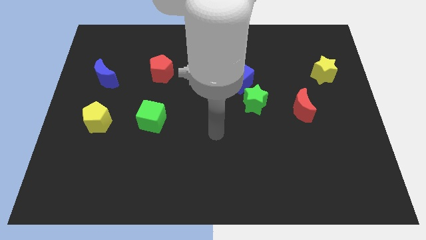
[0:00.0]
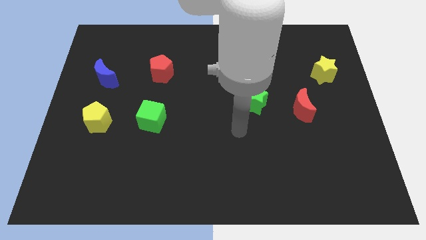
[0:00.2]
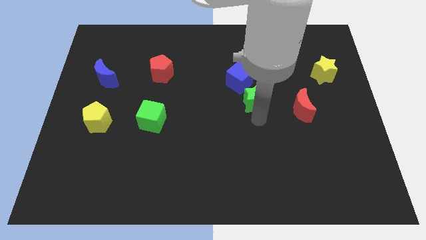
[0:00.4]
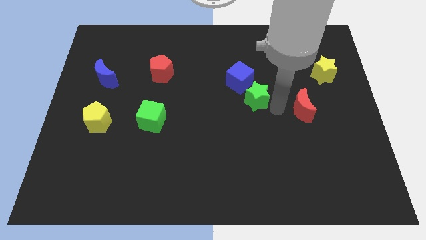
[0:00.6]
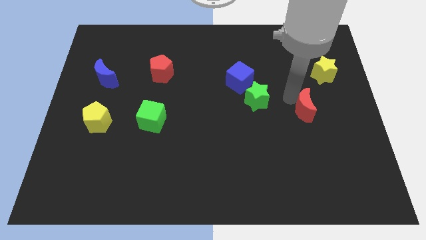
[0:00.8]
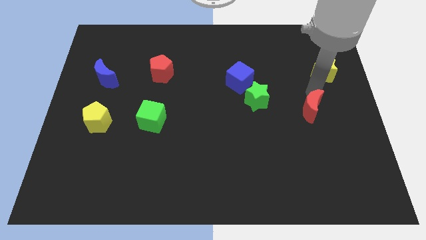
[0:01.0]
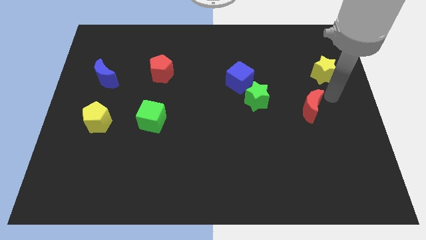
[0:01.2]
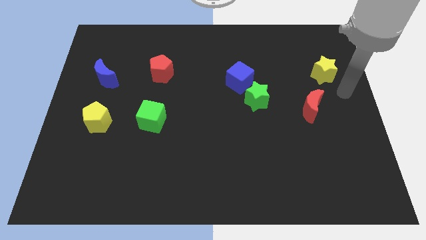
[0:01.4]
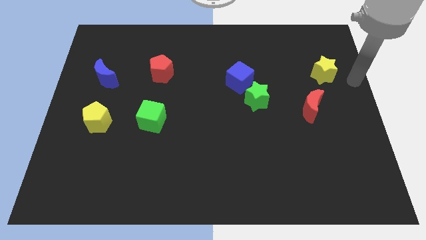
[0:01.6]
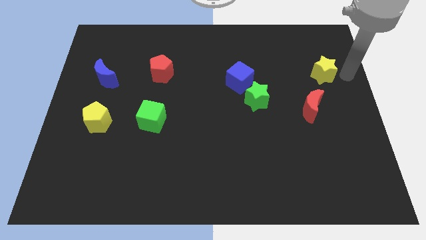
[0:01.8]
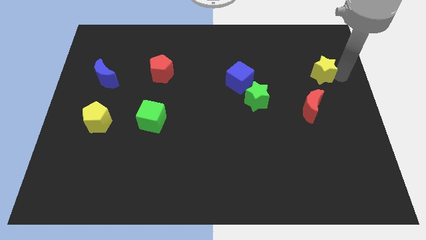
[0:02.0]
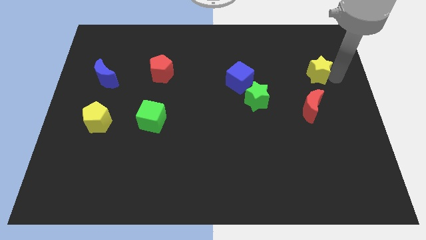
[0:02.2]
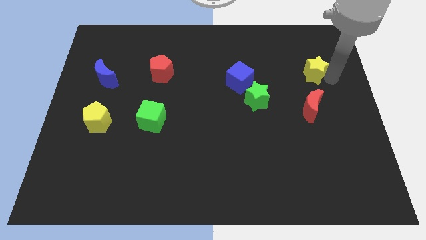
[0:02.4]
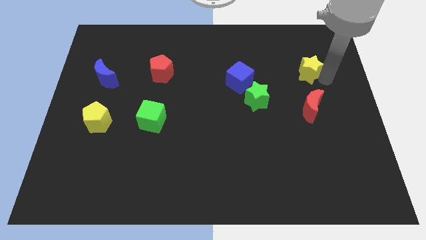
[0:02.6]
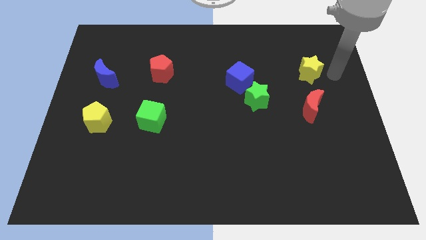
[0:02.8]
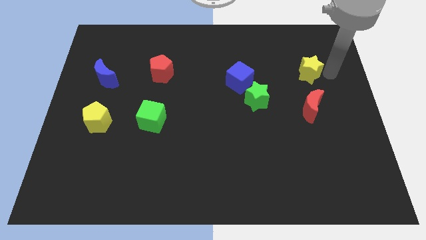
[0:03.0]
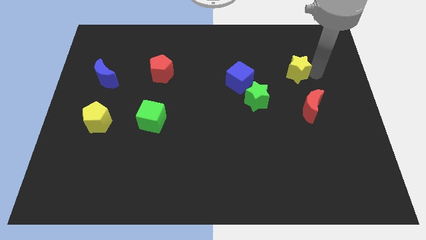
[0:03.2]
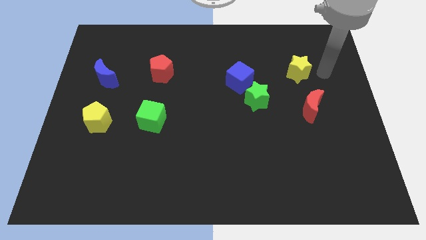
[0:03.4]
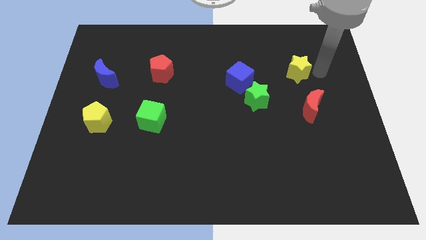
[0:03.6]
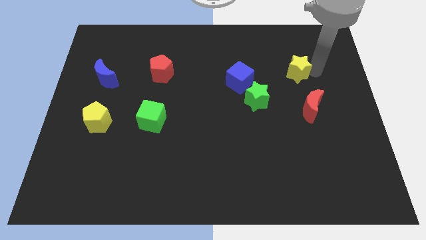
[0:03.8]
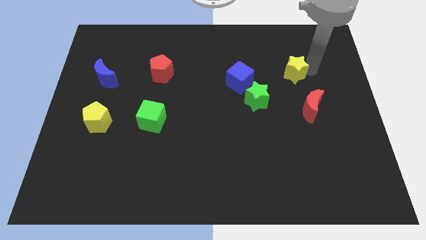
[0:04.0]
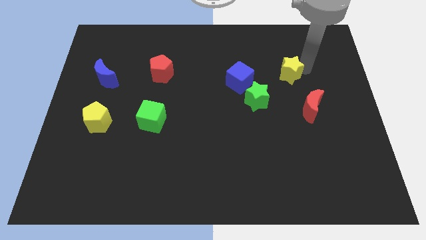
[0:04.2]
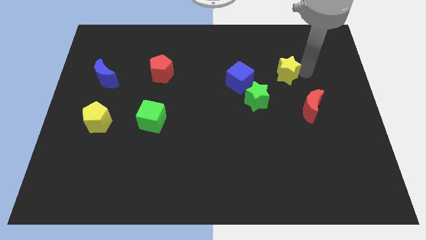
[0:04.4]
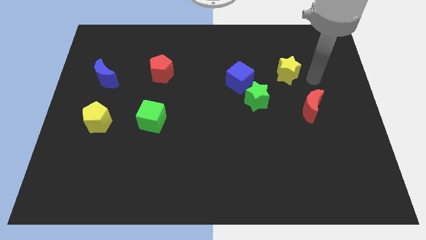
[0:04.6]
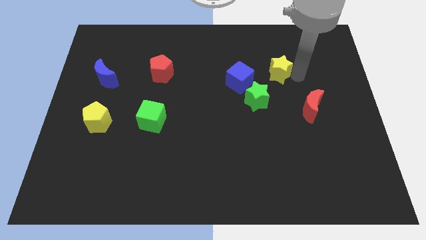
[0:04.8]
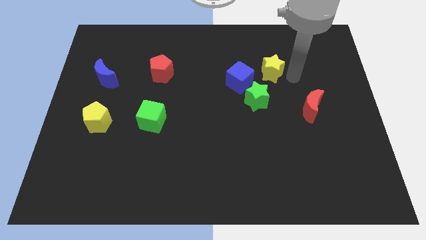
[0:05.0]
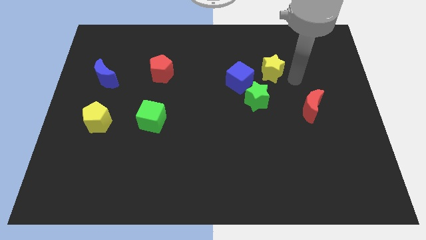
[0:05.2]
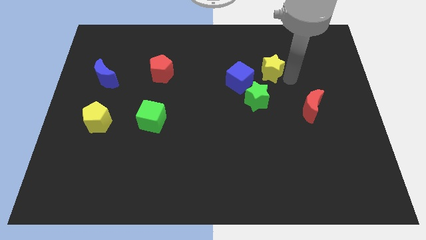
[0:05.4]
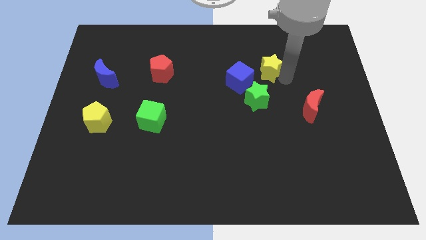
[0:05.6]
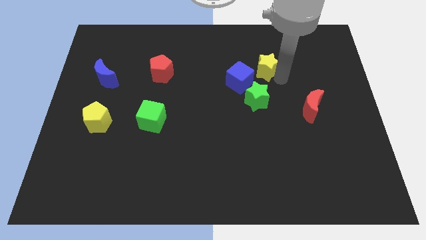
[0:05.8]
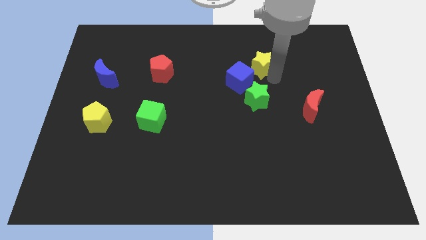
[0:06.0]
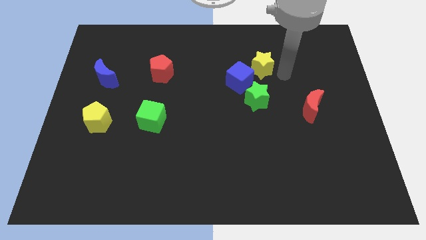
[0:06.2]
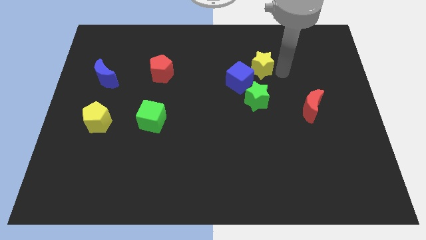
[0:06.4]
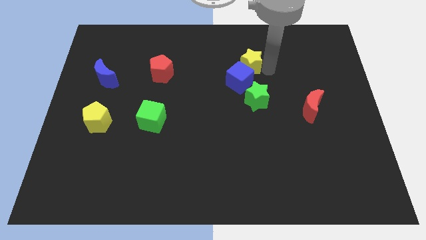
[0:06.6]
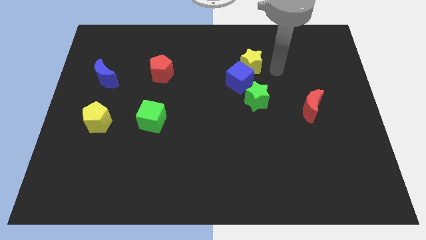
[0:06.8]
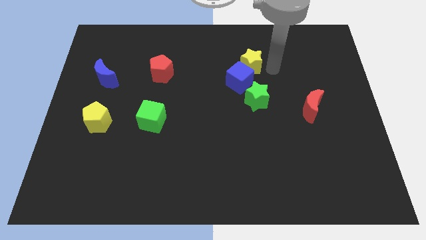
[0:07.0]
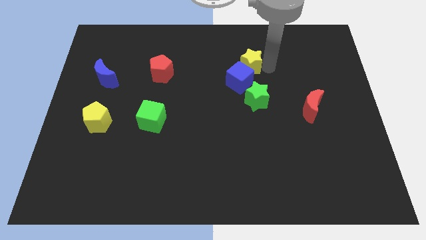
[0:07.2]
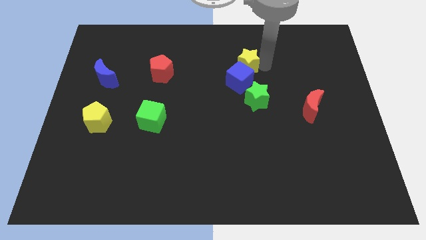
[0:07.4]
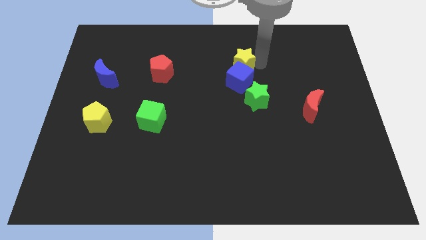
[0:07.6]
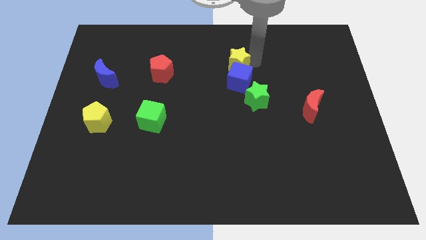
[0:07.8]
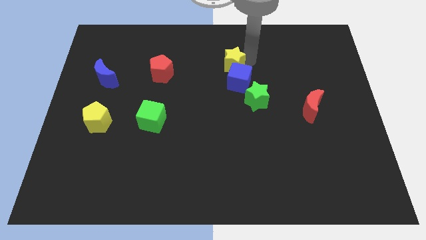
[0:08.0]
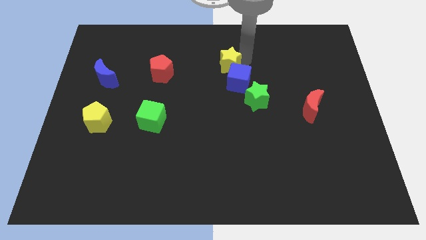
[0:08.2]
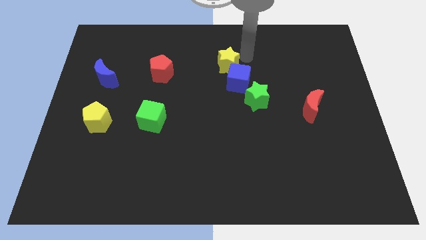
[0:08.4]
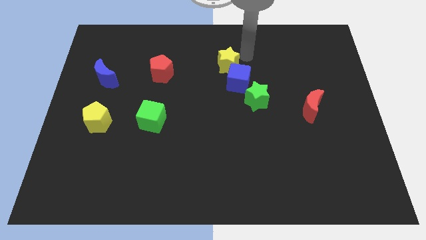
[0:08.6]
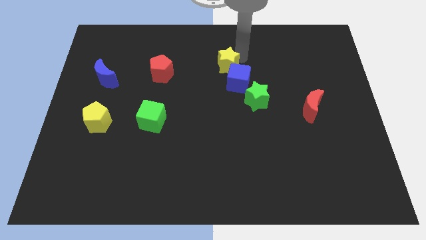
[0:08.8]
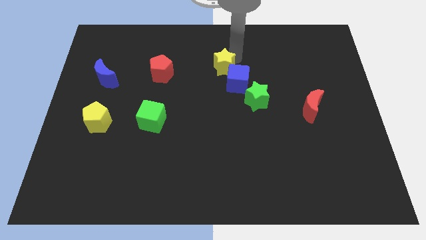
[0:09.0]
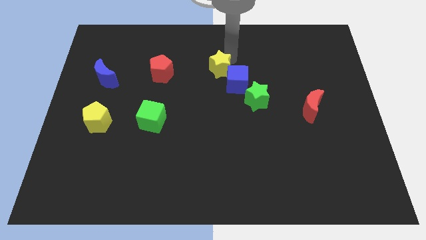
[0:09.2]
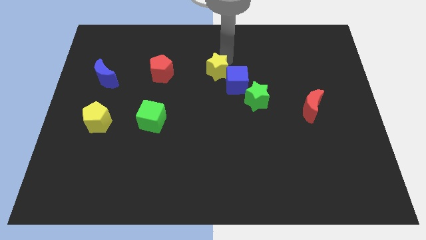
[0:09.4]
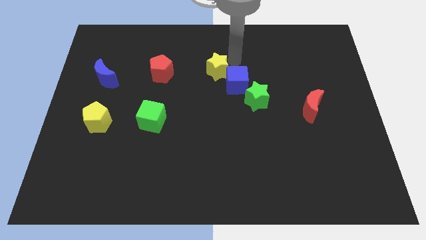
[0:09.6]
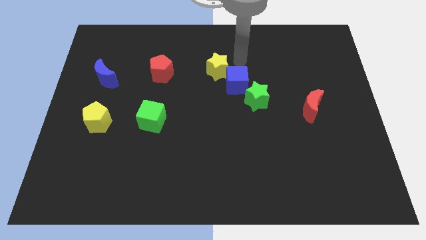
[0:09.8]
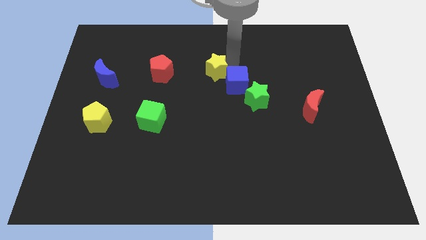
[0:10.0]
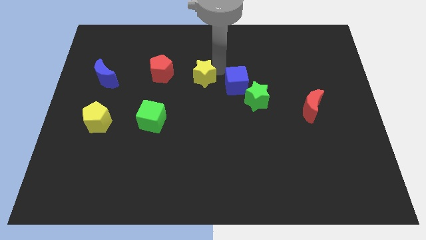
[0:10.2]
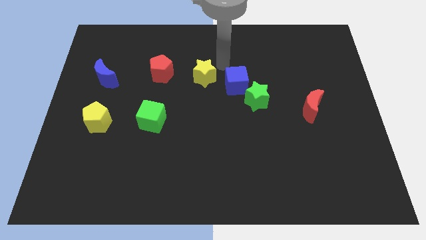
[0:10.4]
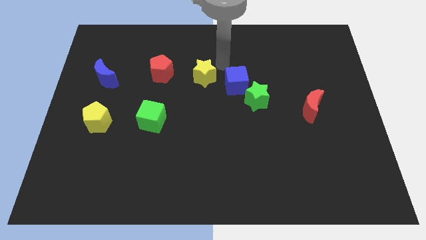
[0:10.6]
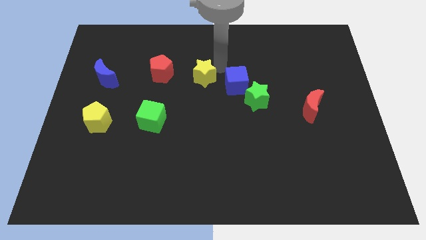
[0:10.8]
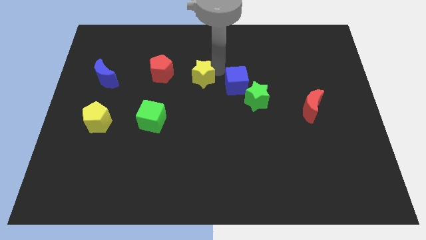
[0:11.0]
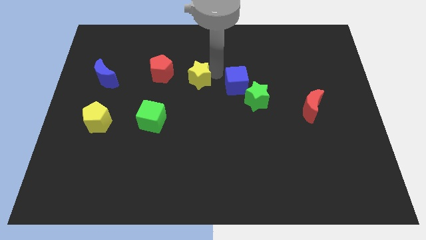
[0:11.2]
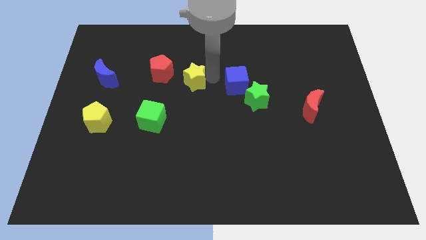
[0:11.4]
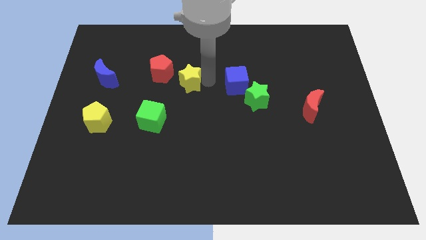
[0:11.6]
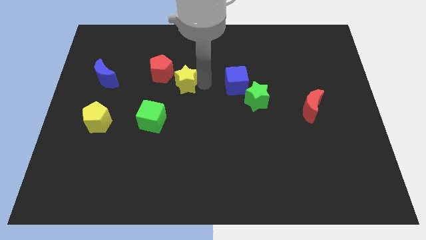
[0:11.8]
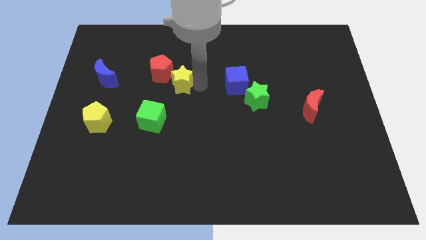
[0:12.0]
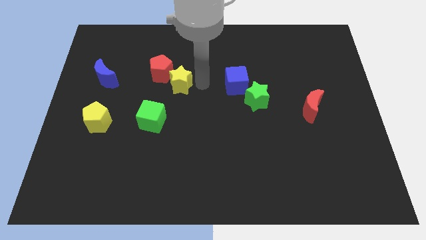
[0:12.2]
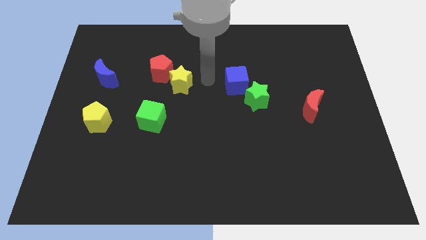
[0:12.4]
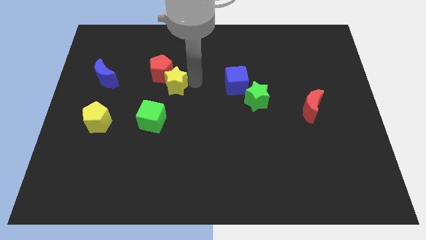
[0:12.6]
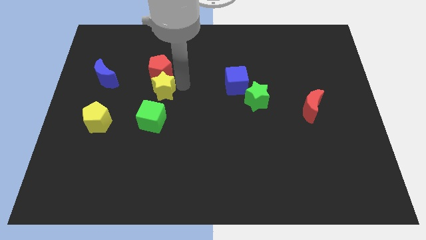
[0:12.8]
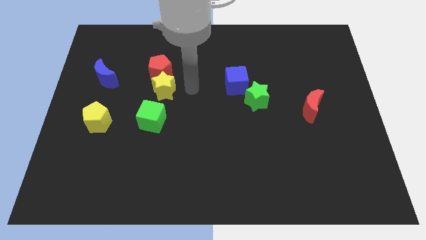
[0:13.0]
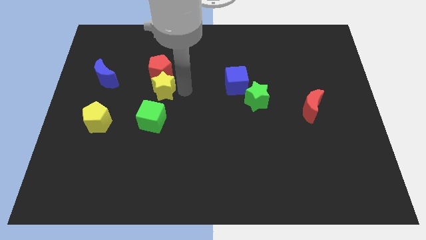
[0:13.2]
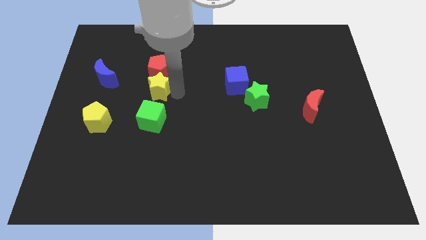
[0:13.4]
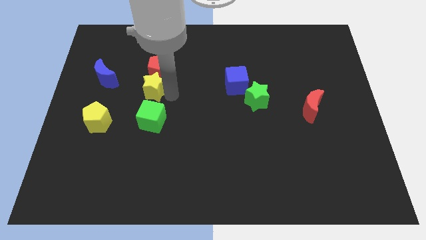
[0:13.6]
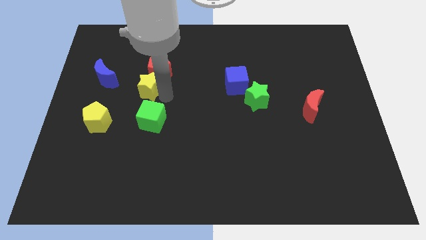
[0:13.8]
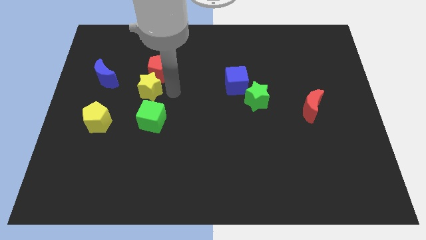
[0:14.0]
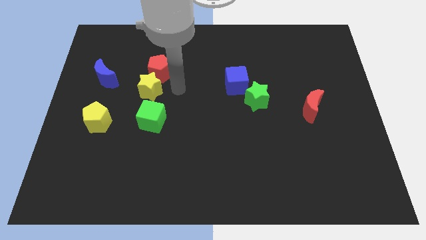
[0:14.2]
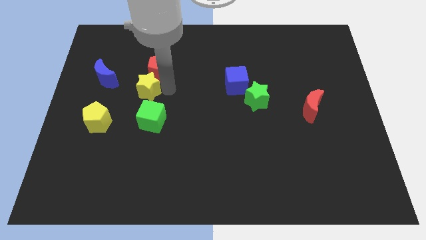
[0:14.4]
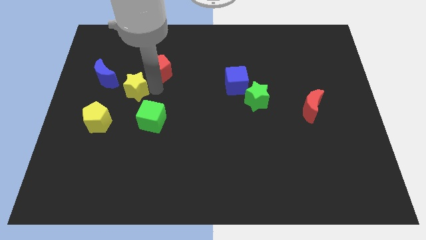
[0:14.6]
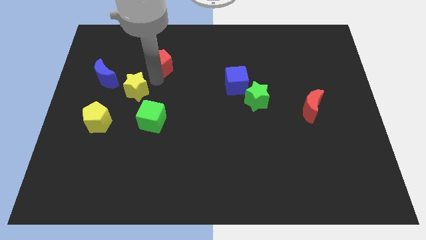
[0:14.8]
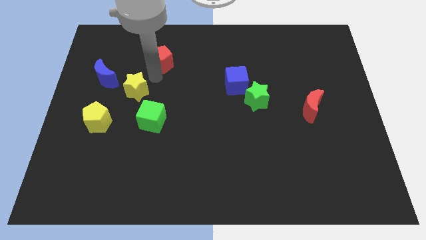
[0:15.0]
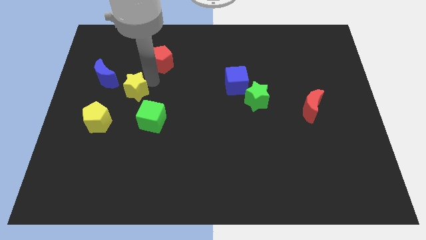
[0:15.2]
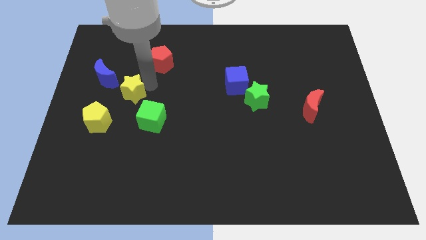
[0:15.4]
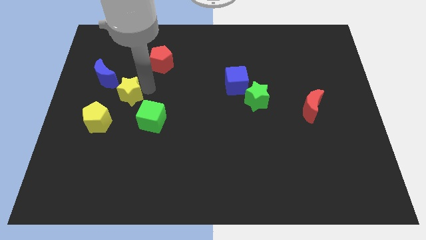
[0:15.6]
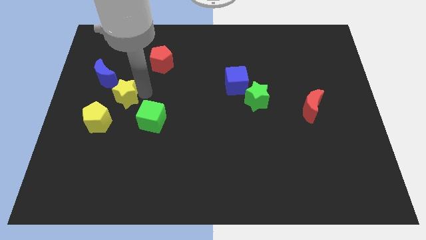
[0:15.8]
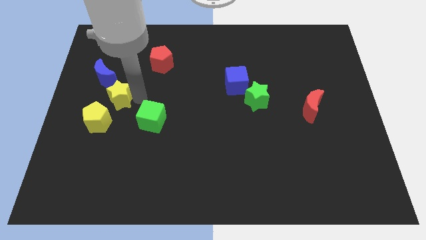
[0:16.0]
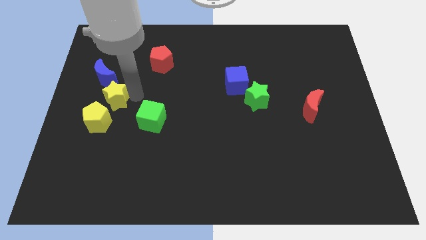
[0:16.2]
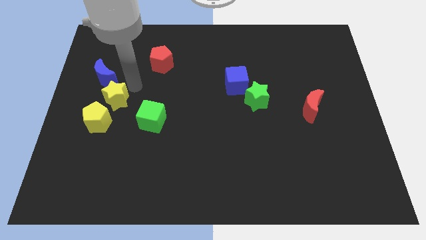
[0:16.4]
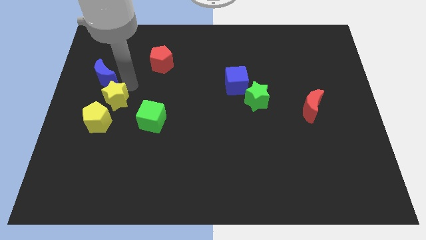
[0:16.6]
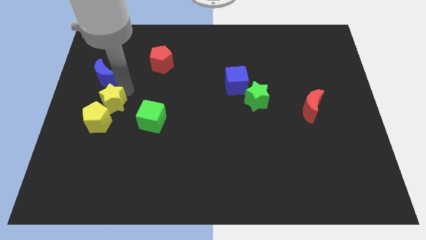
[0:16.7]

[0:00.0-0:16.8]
push the yellow star to the yellow pentagon
